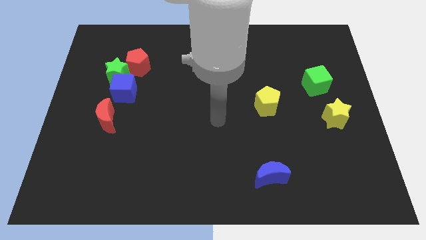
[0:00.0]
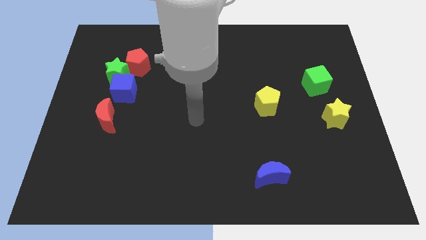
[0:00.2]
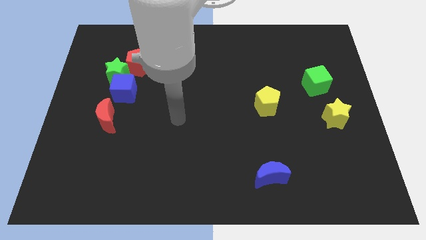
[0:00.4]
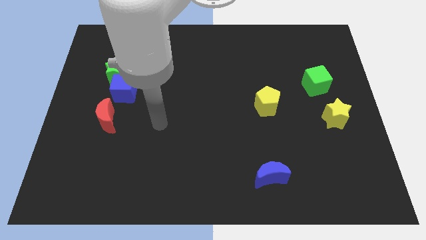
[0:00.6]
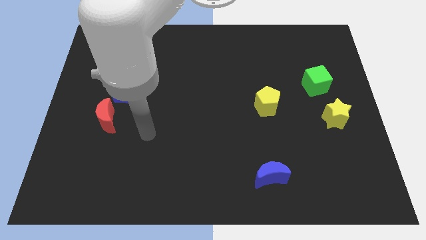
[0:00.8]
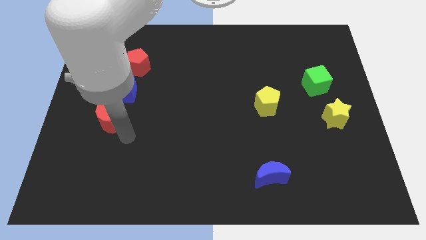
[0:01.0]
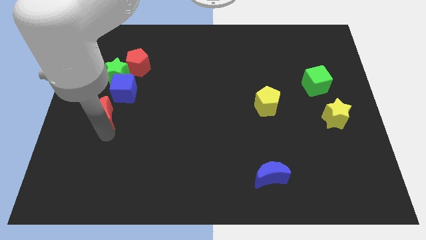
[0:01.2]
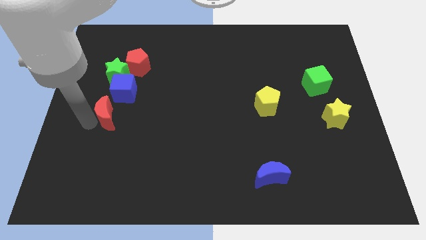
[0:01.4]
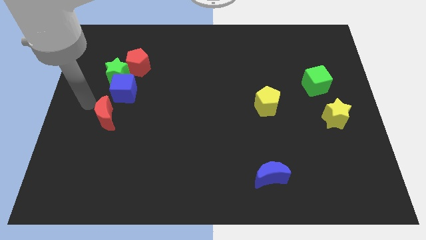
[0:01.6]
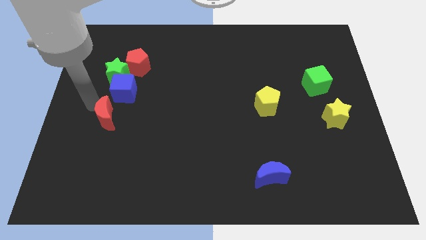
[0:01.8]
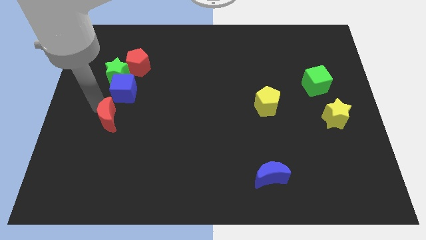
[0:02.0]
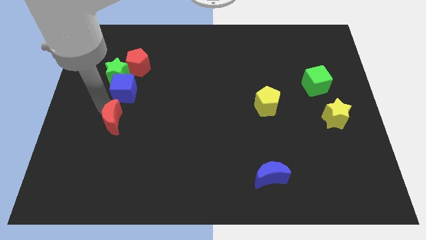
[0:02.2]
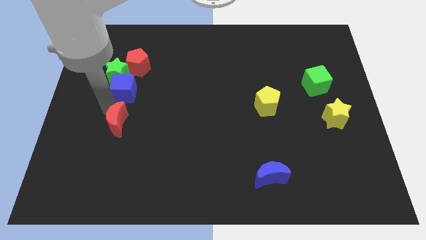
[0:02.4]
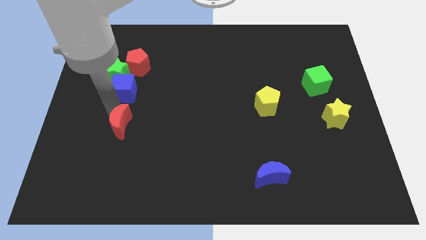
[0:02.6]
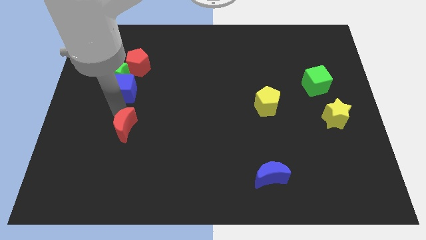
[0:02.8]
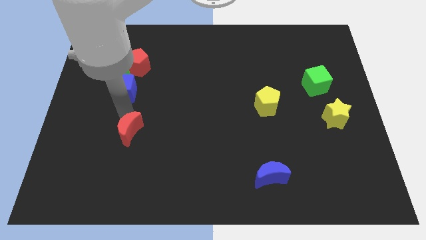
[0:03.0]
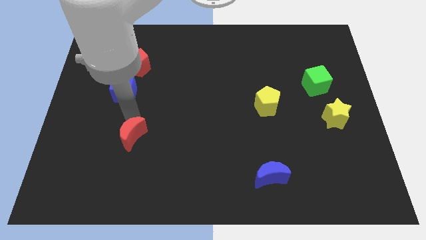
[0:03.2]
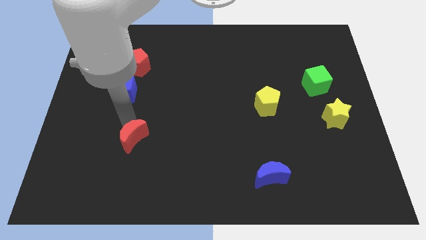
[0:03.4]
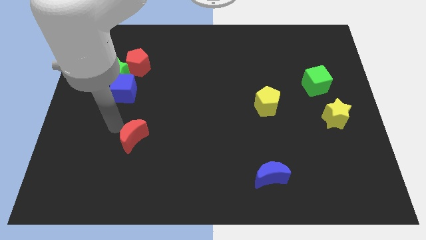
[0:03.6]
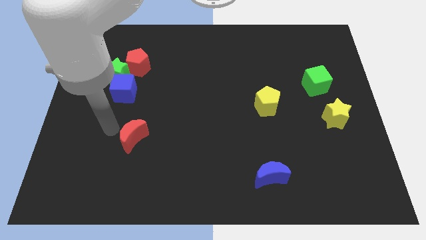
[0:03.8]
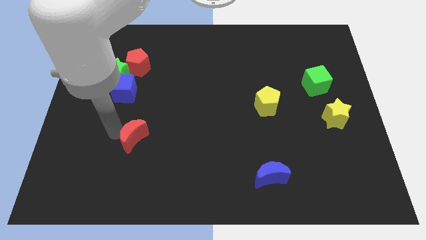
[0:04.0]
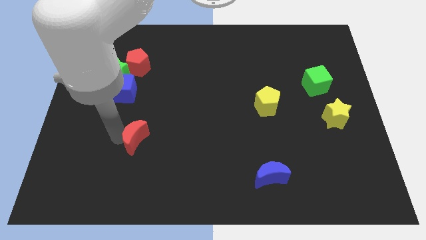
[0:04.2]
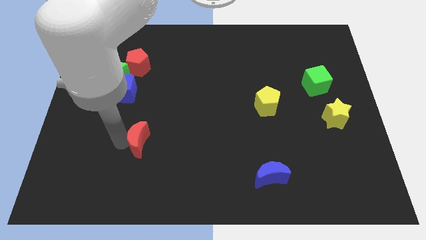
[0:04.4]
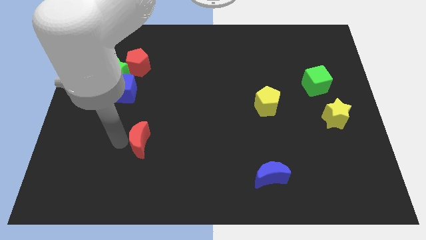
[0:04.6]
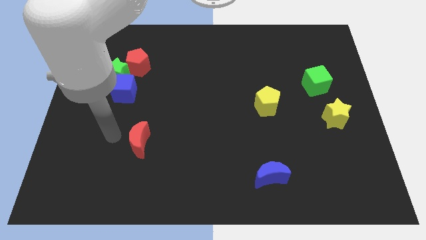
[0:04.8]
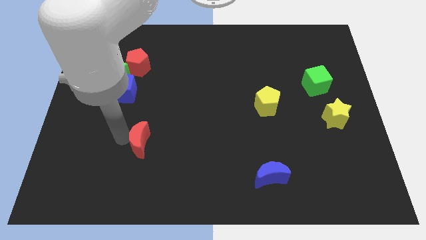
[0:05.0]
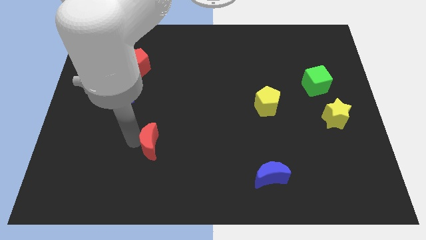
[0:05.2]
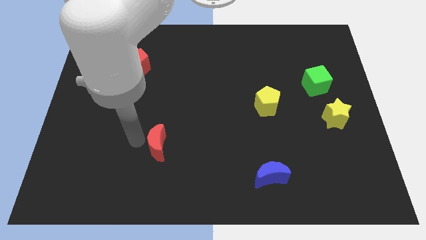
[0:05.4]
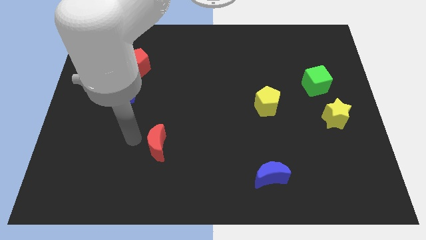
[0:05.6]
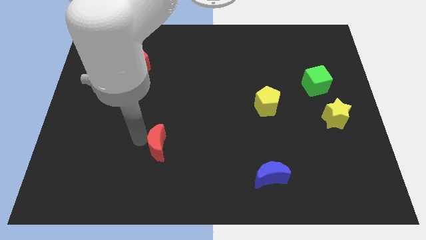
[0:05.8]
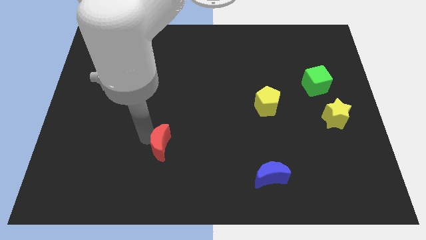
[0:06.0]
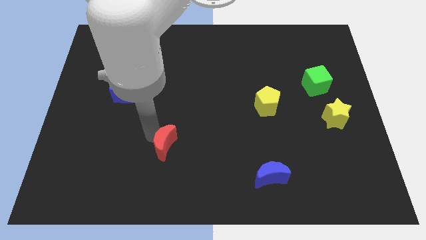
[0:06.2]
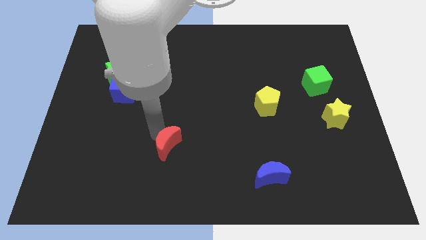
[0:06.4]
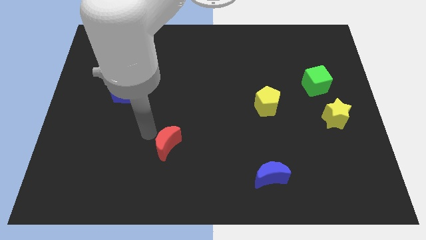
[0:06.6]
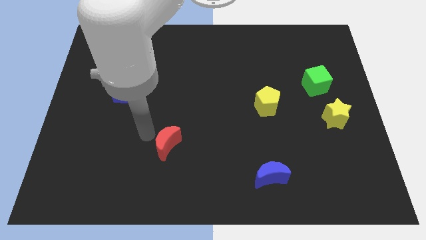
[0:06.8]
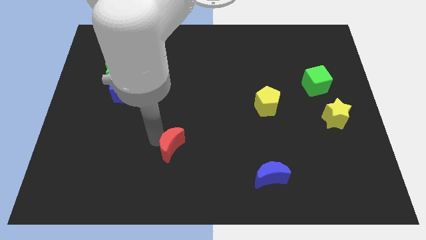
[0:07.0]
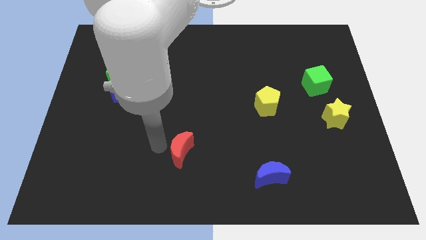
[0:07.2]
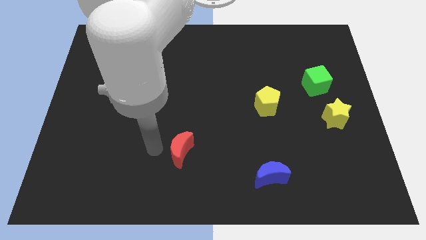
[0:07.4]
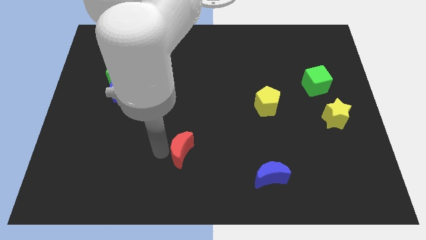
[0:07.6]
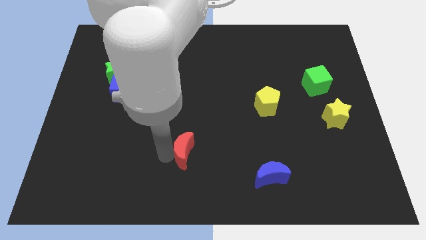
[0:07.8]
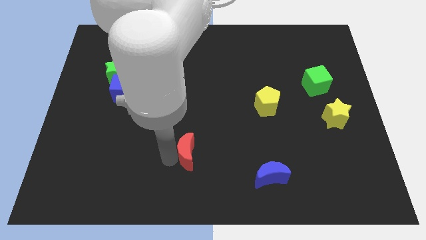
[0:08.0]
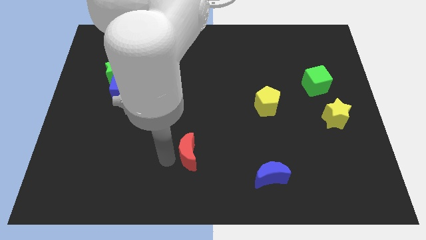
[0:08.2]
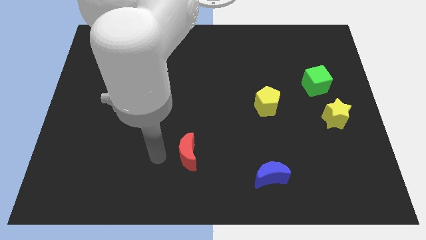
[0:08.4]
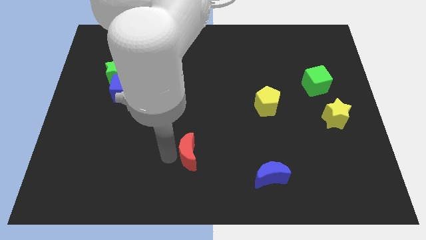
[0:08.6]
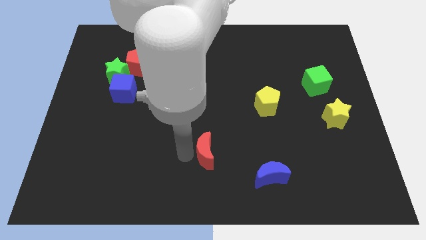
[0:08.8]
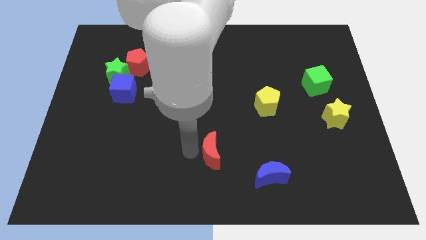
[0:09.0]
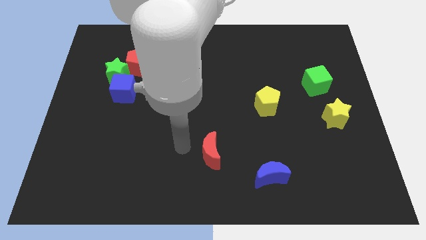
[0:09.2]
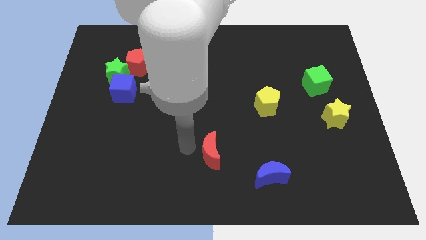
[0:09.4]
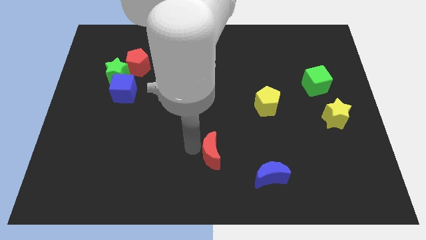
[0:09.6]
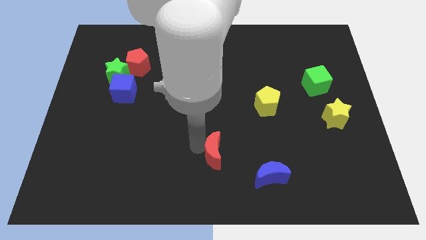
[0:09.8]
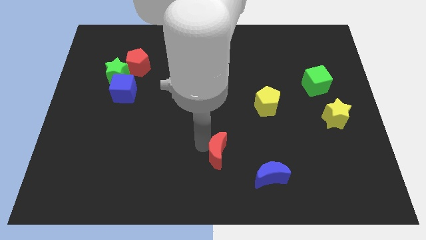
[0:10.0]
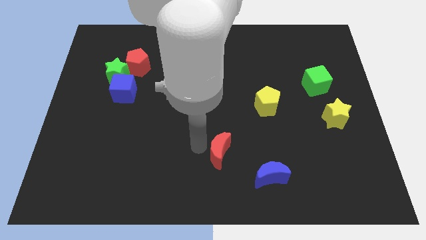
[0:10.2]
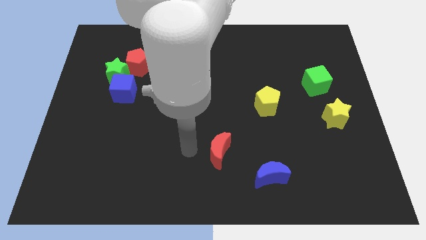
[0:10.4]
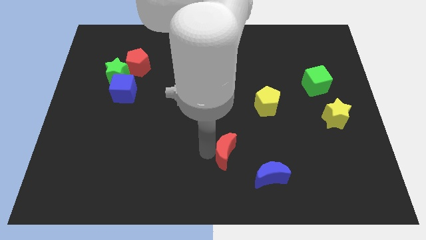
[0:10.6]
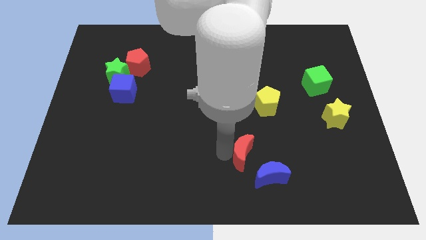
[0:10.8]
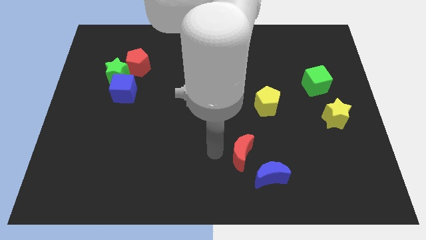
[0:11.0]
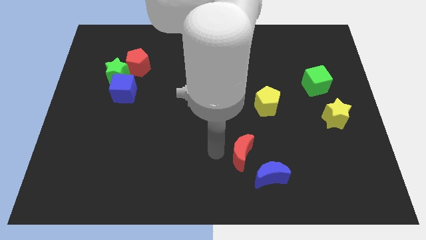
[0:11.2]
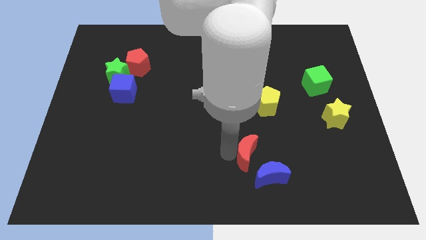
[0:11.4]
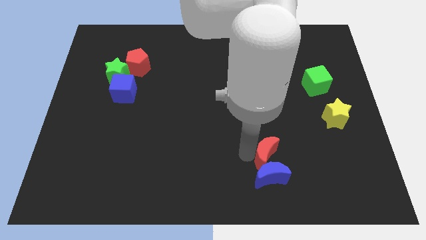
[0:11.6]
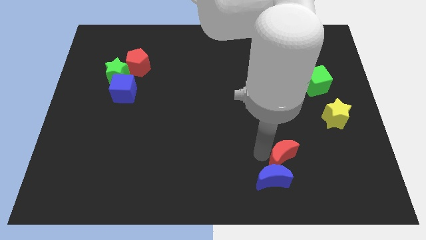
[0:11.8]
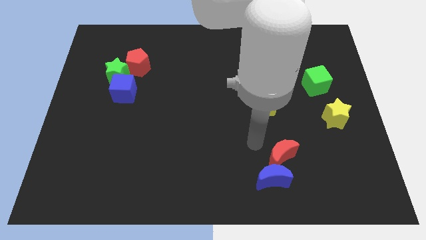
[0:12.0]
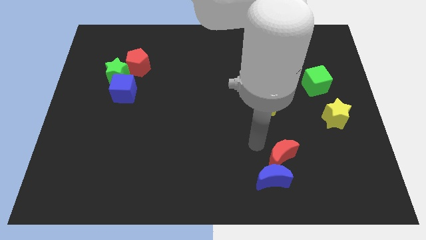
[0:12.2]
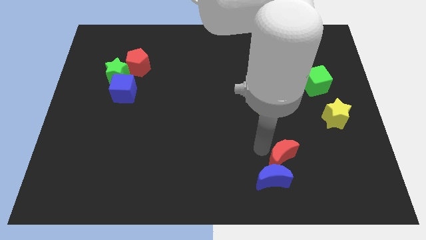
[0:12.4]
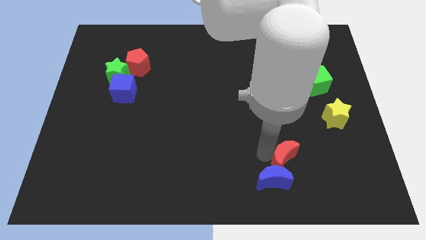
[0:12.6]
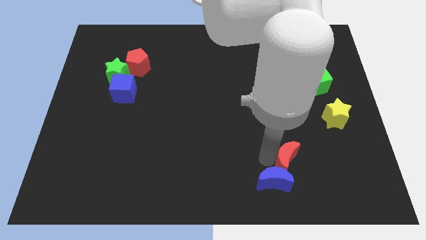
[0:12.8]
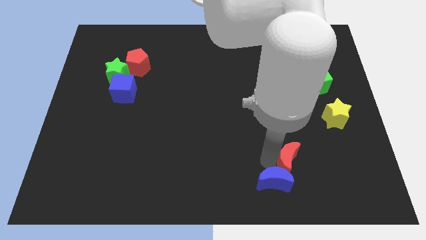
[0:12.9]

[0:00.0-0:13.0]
slide the red moon just right of the blue moon

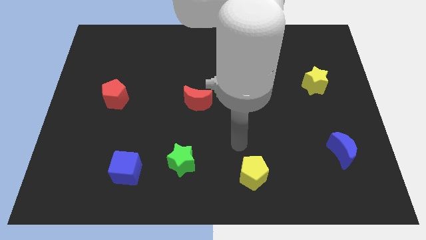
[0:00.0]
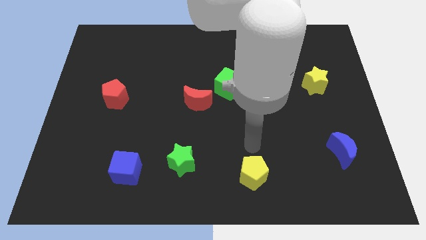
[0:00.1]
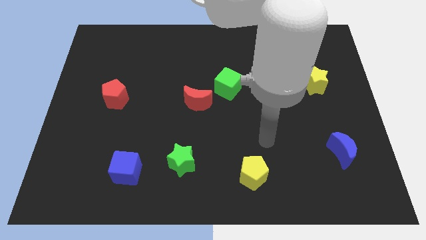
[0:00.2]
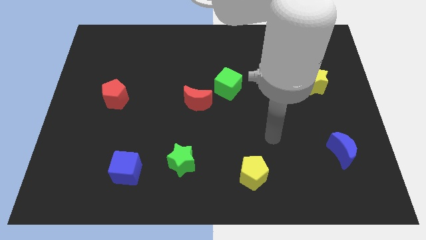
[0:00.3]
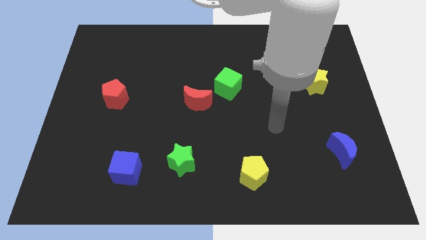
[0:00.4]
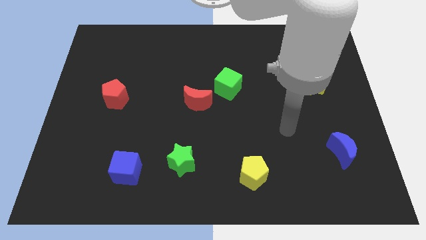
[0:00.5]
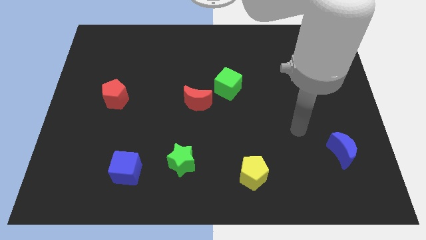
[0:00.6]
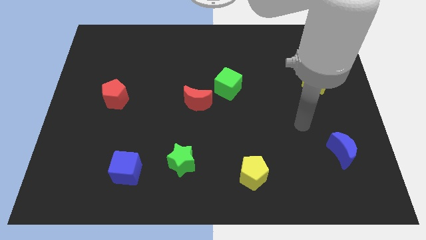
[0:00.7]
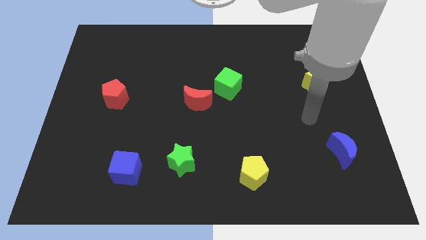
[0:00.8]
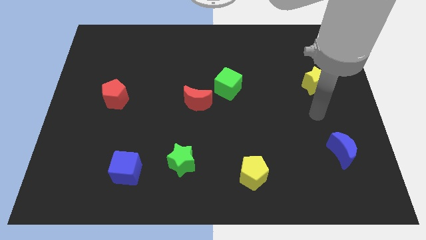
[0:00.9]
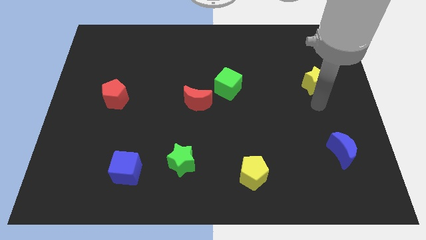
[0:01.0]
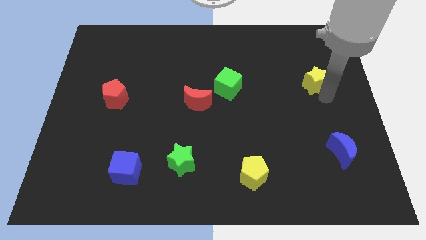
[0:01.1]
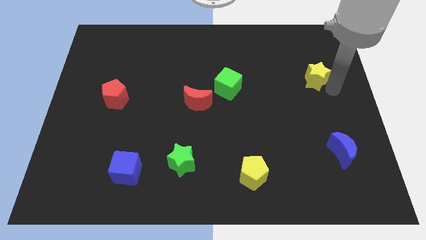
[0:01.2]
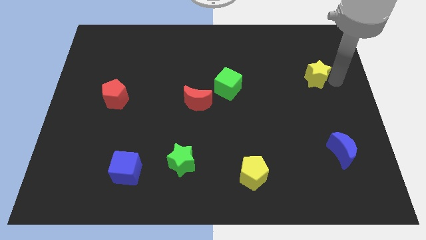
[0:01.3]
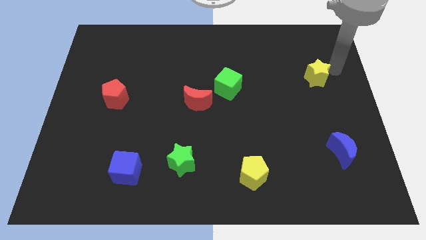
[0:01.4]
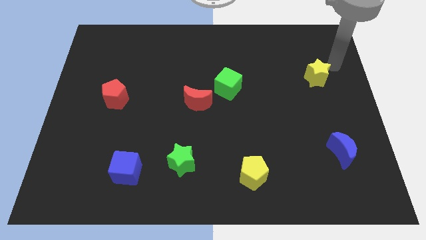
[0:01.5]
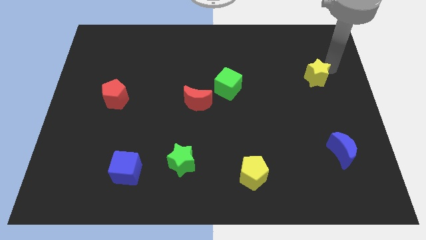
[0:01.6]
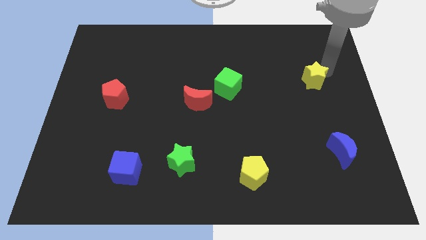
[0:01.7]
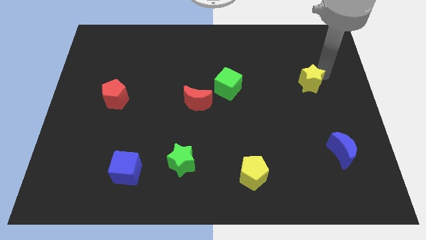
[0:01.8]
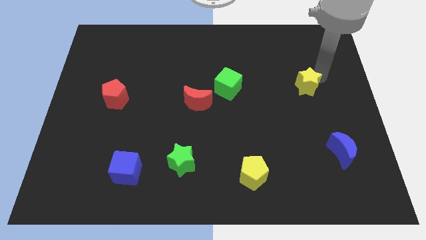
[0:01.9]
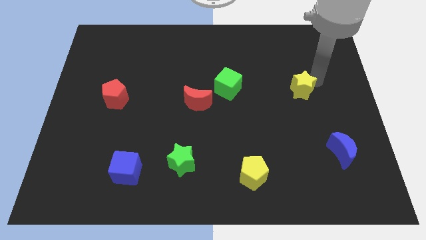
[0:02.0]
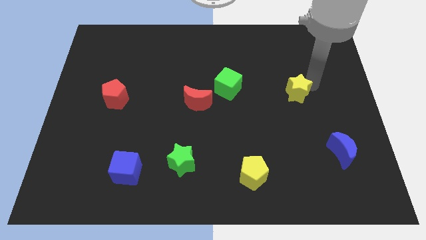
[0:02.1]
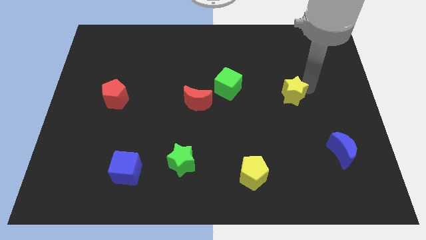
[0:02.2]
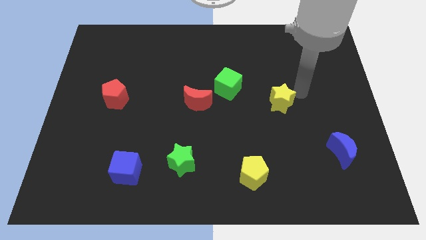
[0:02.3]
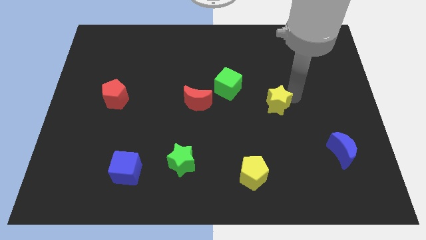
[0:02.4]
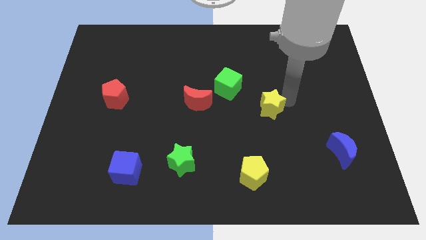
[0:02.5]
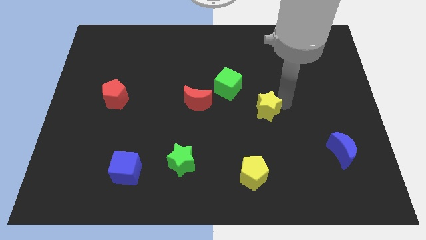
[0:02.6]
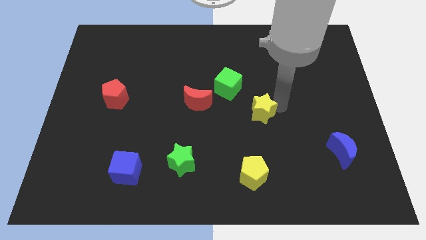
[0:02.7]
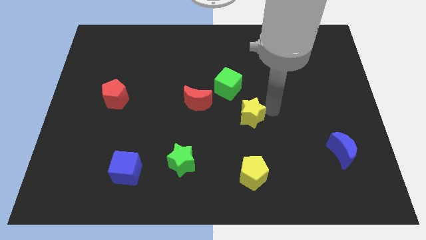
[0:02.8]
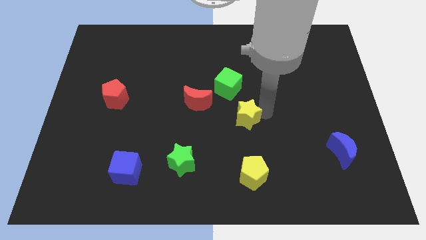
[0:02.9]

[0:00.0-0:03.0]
push the yellow star to the bottom of the green cube
